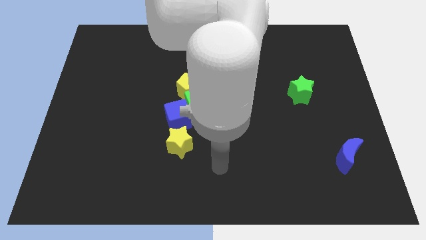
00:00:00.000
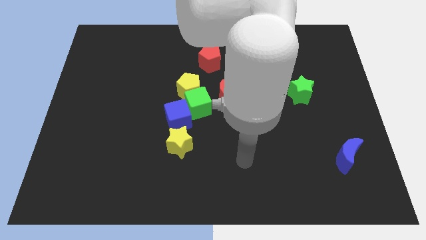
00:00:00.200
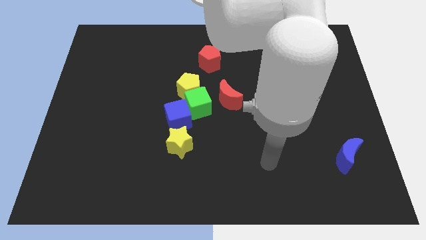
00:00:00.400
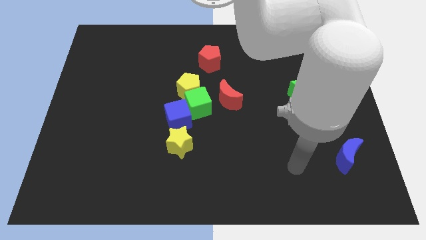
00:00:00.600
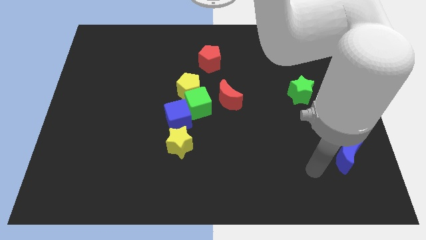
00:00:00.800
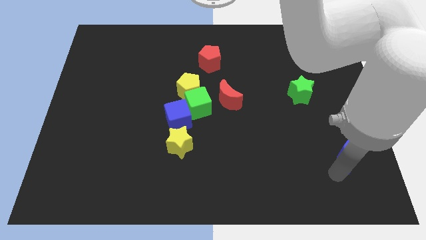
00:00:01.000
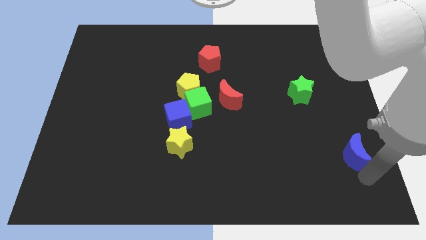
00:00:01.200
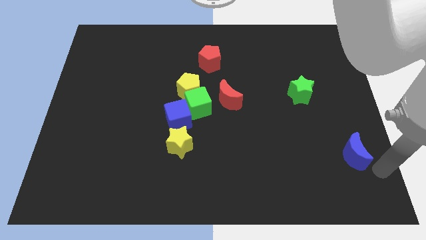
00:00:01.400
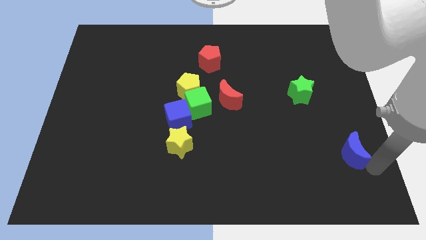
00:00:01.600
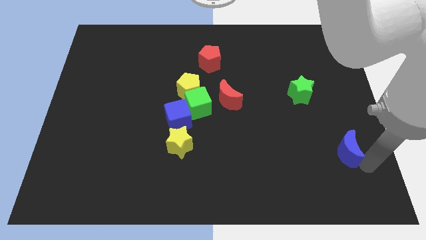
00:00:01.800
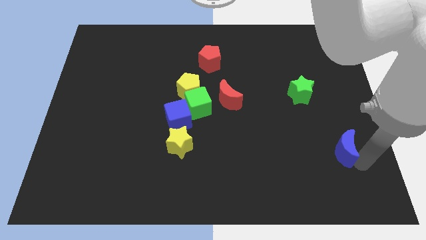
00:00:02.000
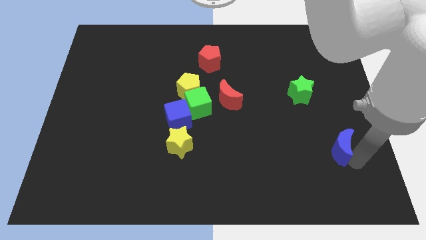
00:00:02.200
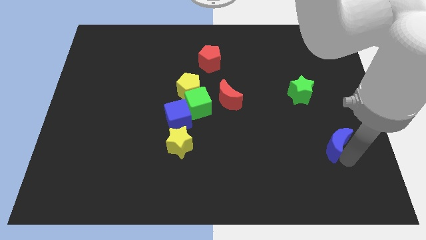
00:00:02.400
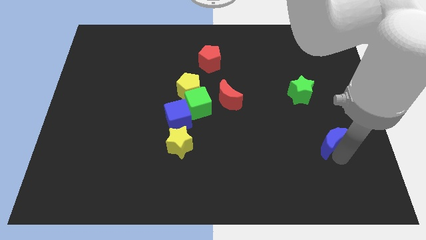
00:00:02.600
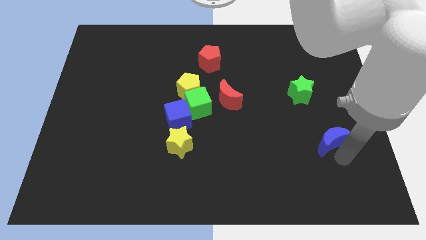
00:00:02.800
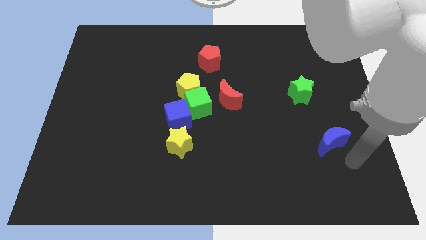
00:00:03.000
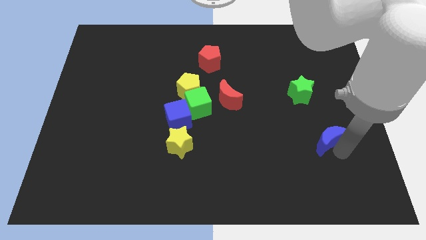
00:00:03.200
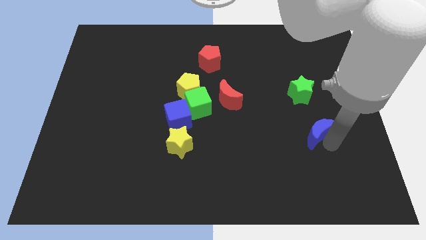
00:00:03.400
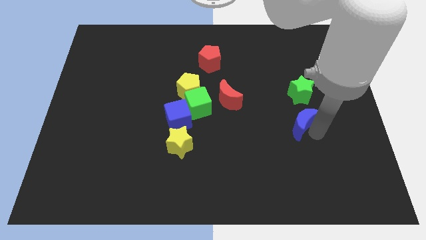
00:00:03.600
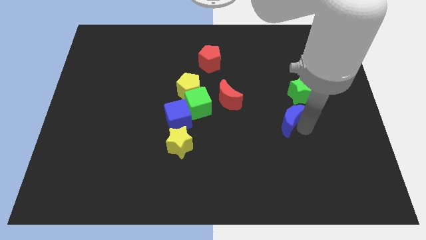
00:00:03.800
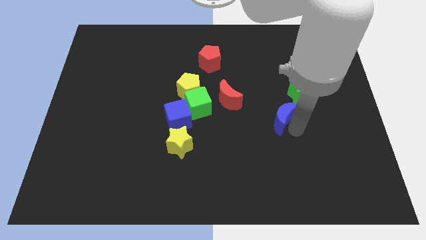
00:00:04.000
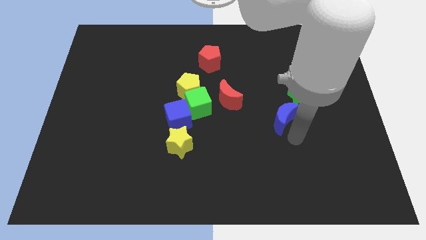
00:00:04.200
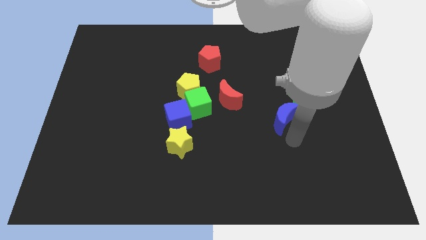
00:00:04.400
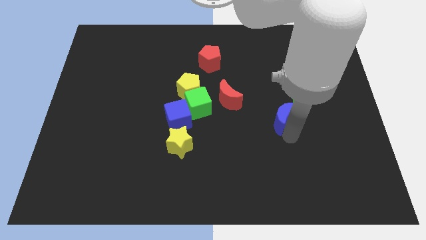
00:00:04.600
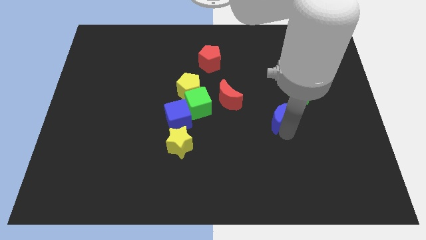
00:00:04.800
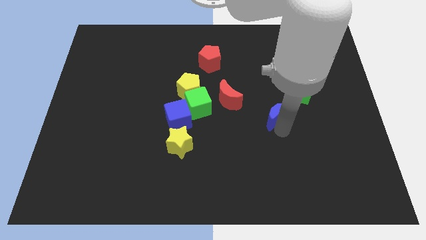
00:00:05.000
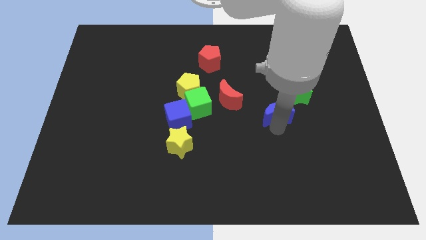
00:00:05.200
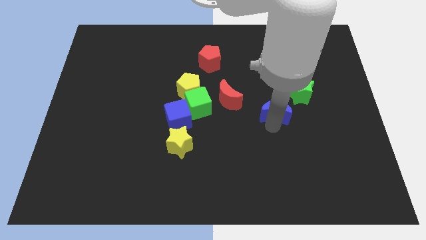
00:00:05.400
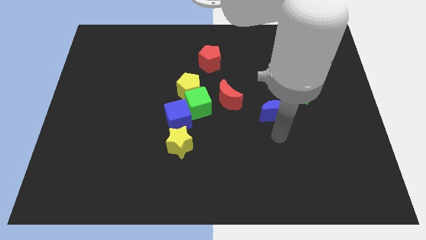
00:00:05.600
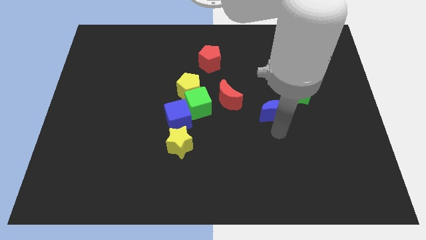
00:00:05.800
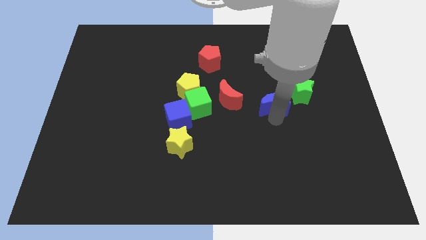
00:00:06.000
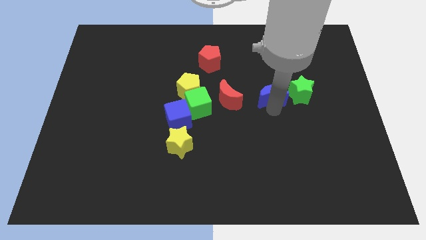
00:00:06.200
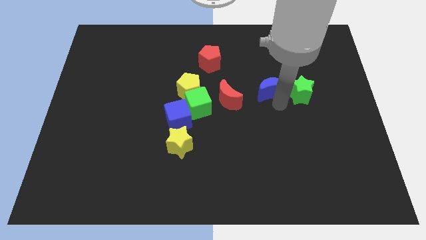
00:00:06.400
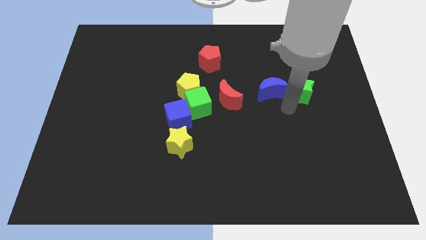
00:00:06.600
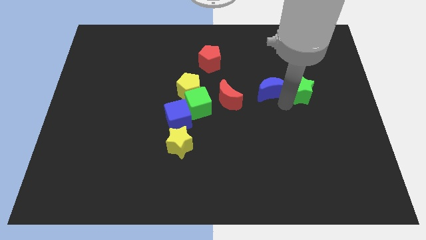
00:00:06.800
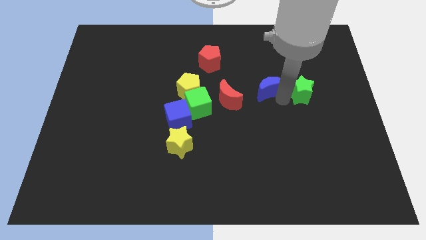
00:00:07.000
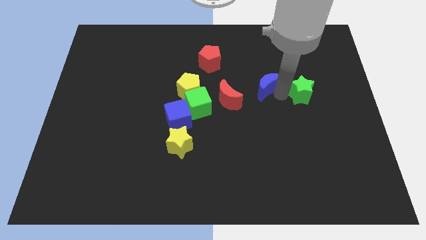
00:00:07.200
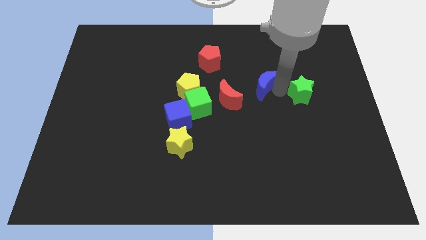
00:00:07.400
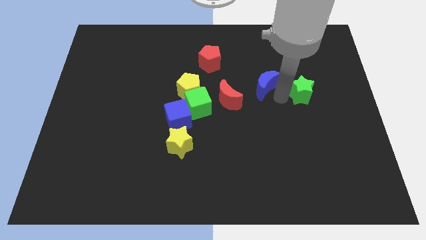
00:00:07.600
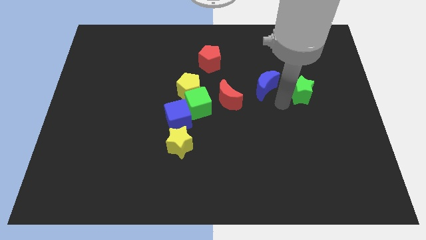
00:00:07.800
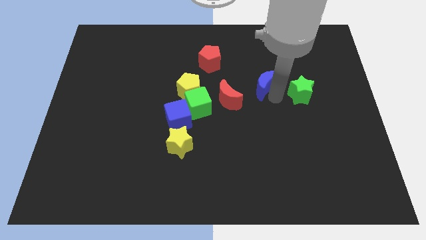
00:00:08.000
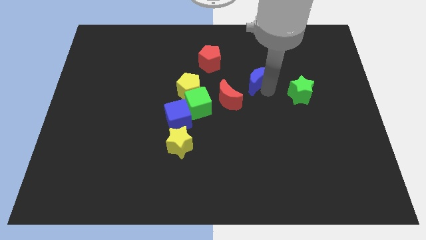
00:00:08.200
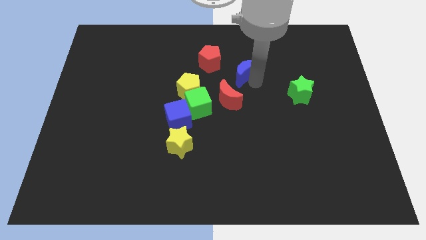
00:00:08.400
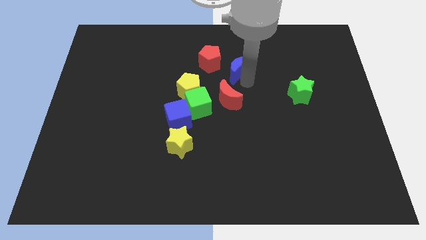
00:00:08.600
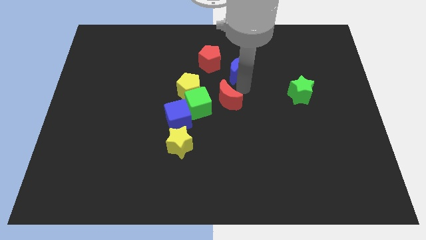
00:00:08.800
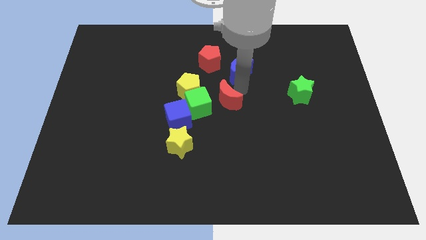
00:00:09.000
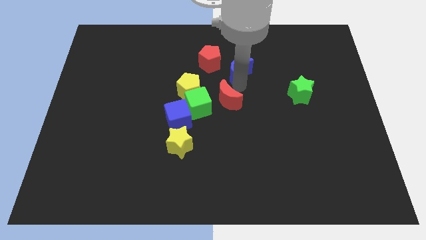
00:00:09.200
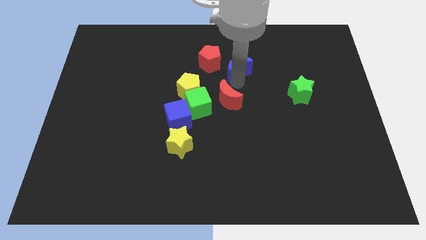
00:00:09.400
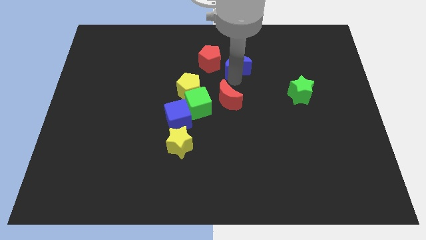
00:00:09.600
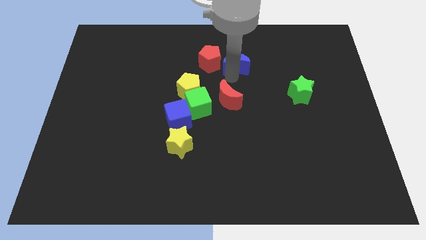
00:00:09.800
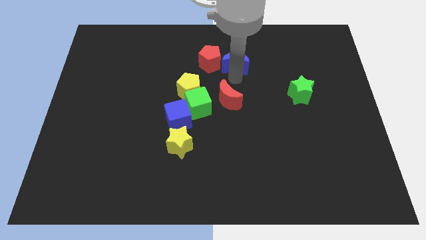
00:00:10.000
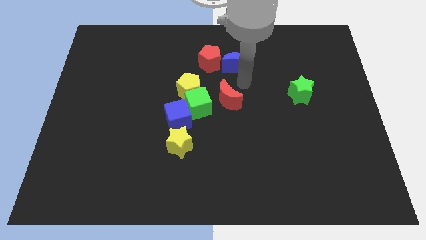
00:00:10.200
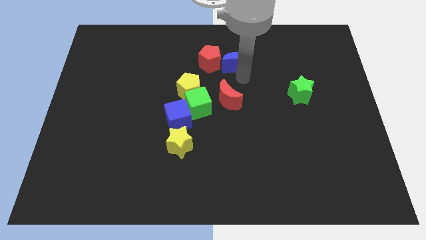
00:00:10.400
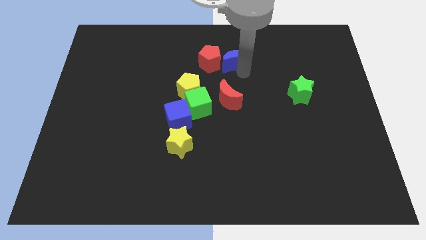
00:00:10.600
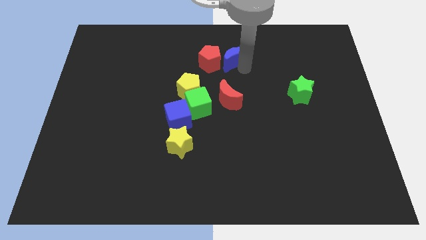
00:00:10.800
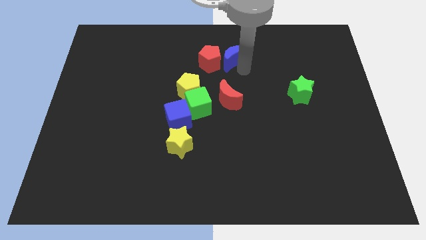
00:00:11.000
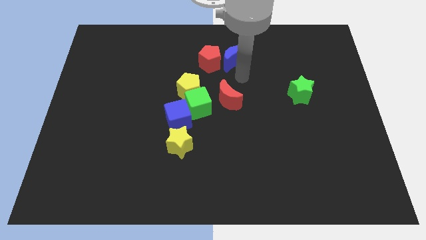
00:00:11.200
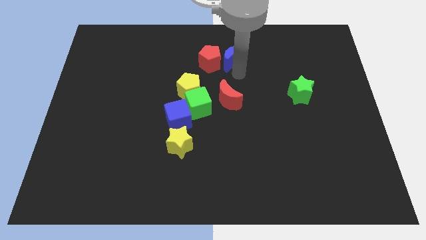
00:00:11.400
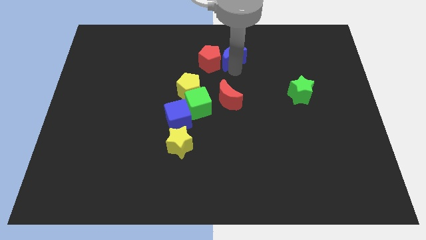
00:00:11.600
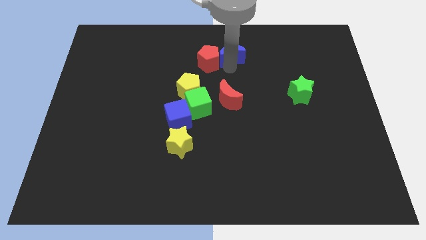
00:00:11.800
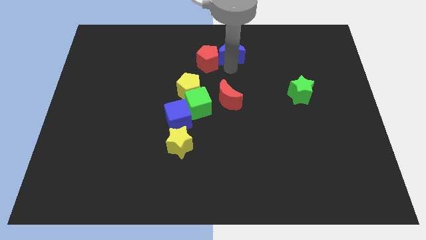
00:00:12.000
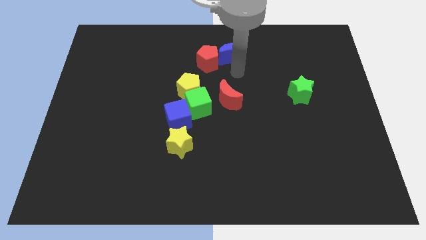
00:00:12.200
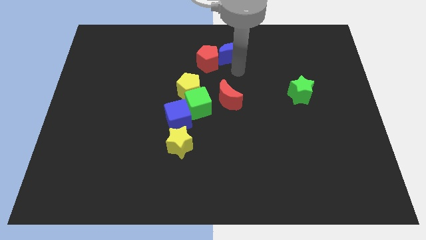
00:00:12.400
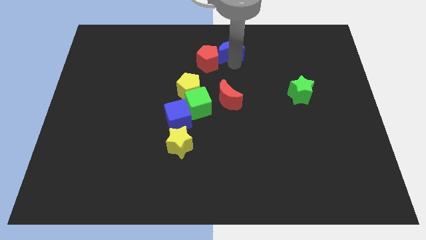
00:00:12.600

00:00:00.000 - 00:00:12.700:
put the blue moon to the top
